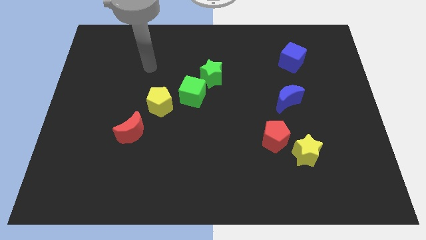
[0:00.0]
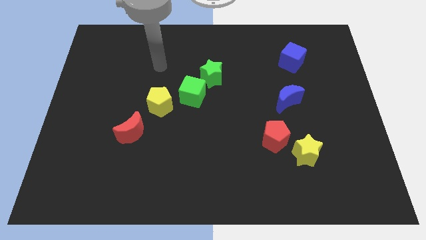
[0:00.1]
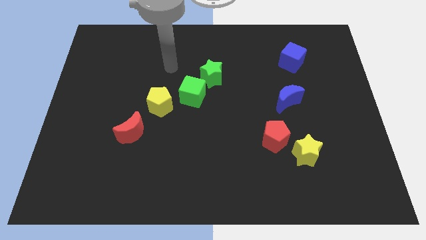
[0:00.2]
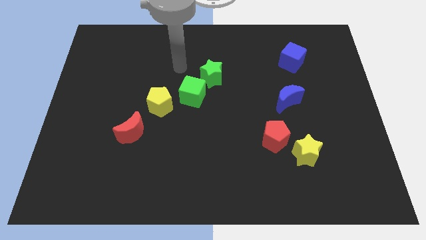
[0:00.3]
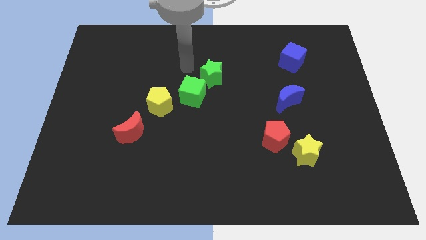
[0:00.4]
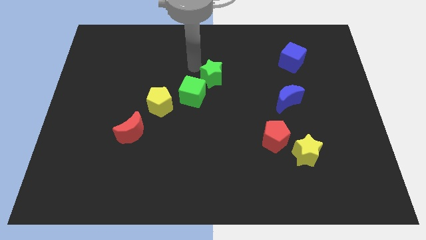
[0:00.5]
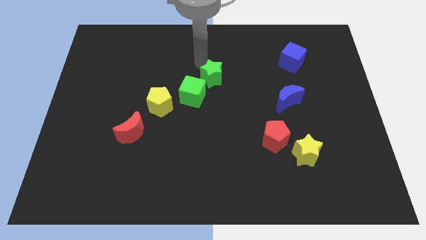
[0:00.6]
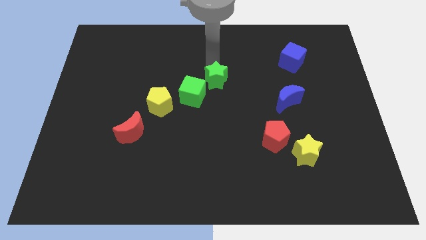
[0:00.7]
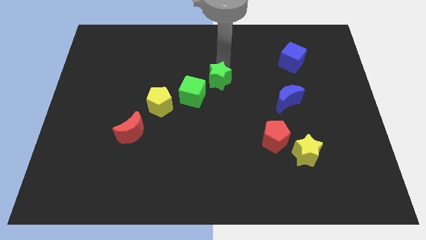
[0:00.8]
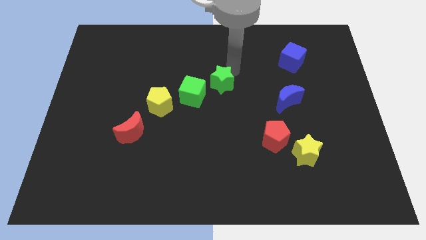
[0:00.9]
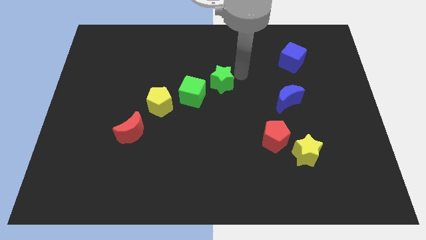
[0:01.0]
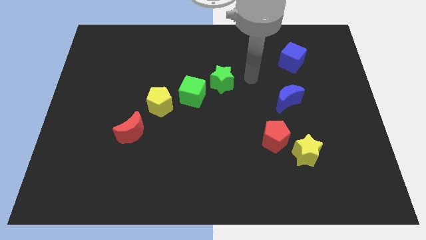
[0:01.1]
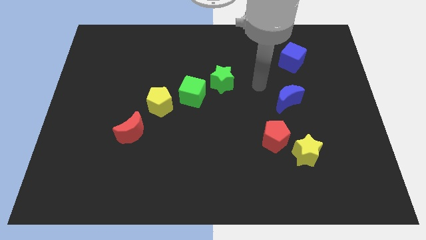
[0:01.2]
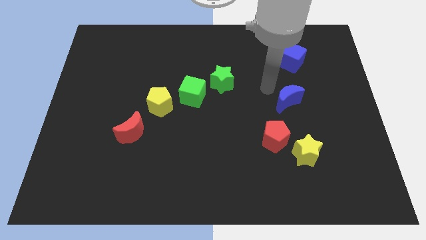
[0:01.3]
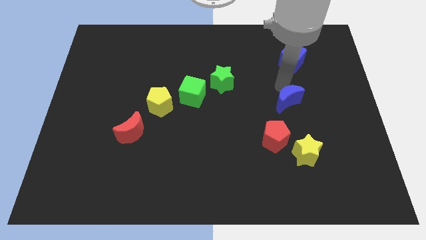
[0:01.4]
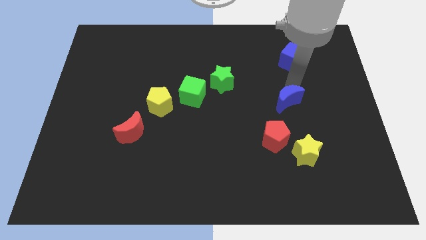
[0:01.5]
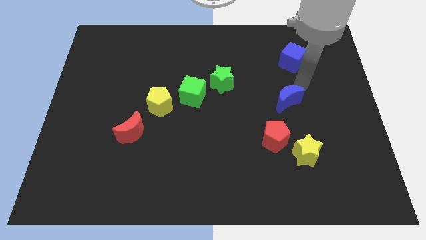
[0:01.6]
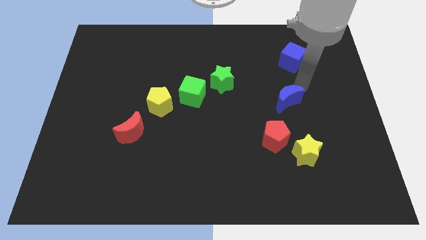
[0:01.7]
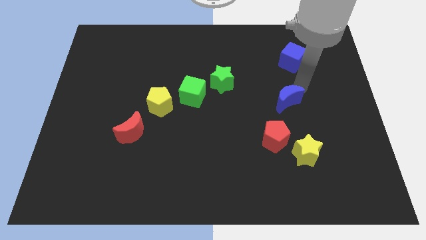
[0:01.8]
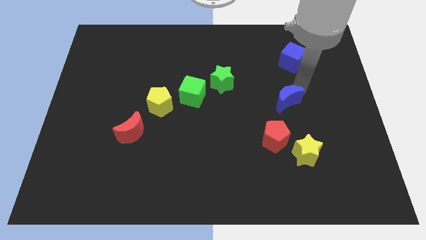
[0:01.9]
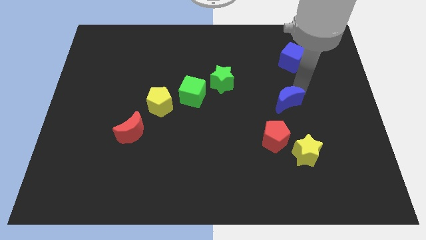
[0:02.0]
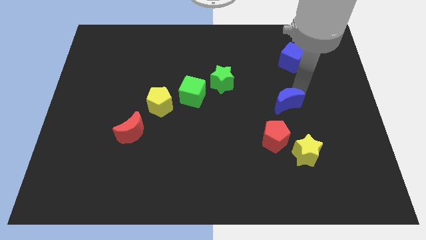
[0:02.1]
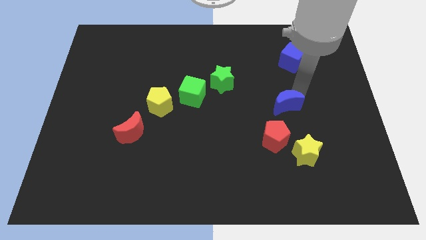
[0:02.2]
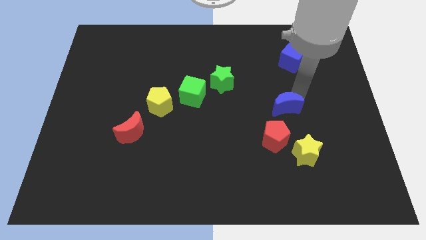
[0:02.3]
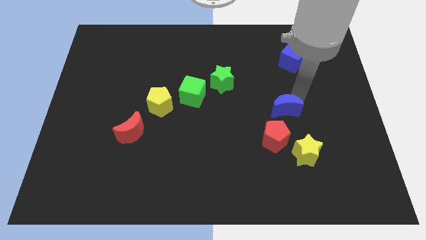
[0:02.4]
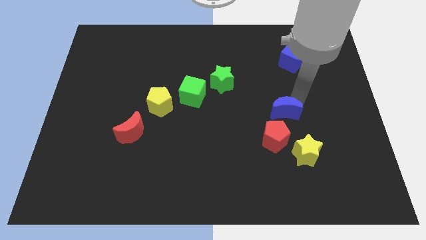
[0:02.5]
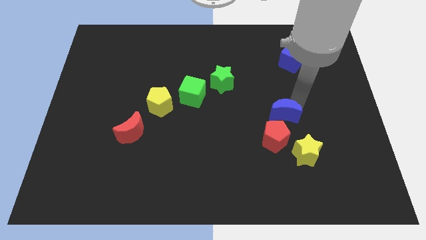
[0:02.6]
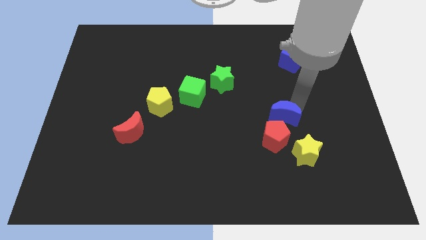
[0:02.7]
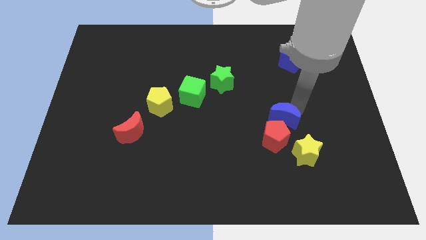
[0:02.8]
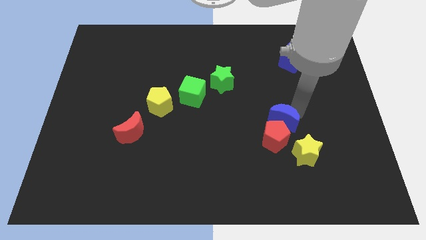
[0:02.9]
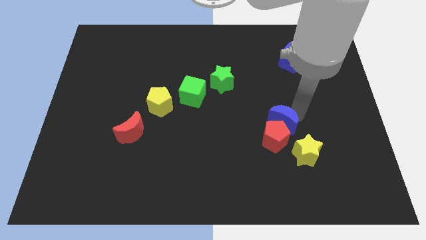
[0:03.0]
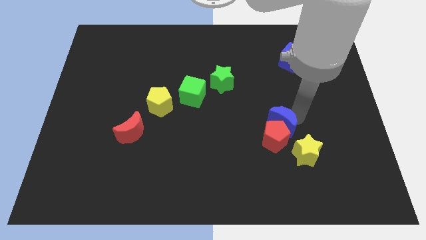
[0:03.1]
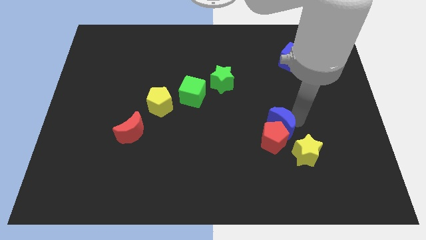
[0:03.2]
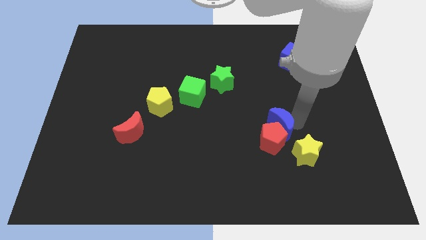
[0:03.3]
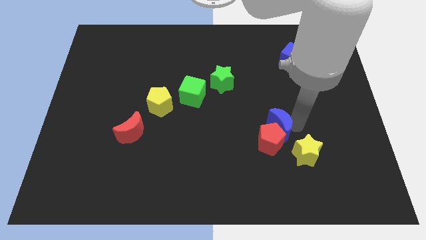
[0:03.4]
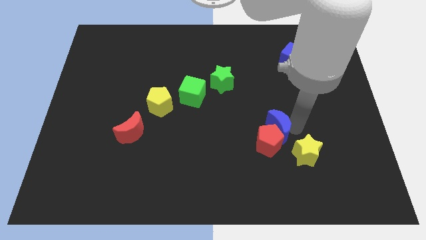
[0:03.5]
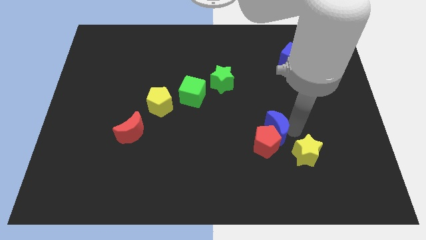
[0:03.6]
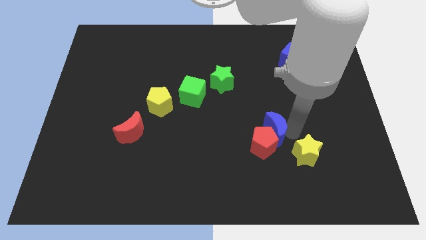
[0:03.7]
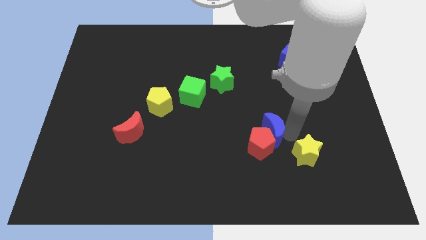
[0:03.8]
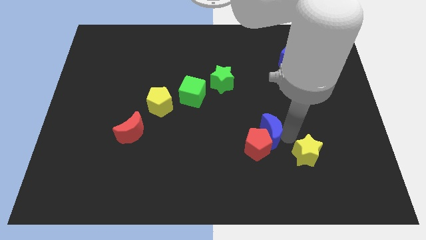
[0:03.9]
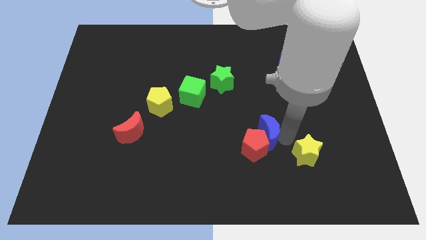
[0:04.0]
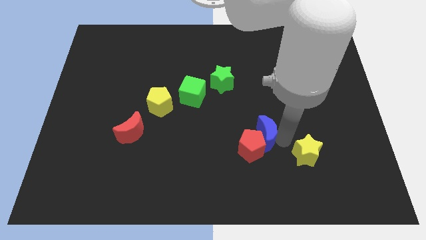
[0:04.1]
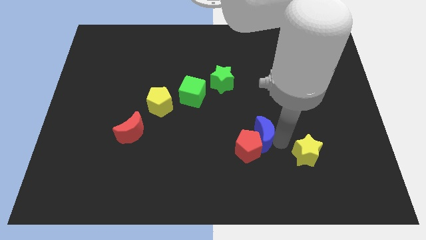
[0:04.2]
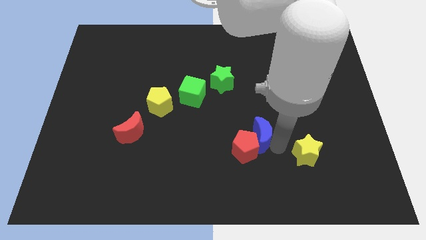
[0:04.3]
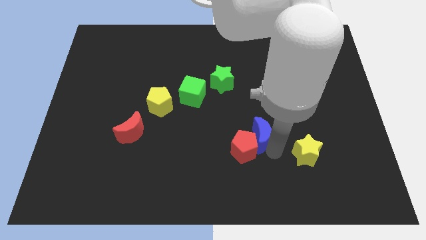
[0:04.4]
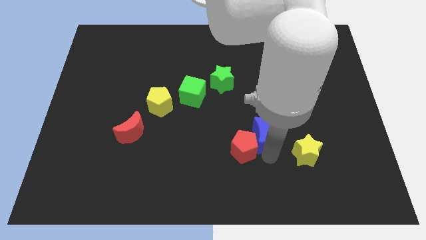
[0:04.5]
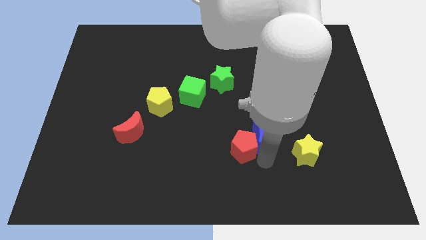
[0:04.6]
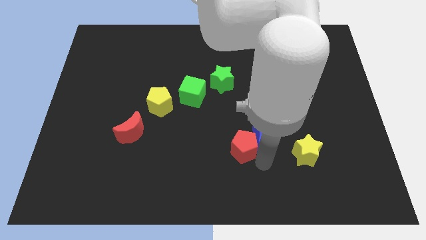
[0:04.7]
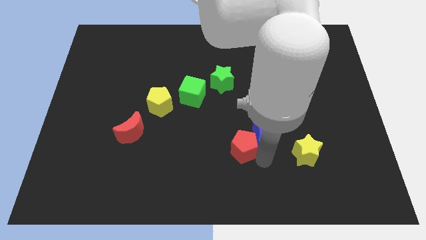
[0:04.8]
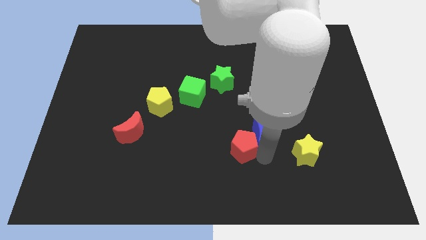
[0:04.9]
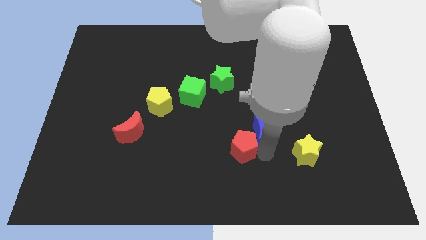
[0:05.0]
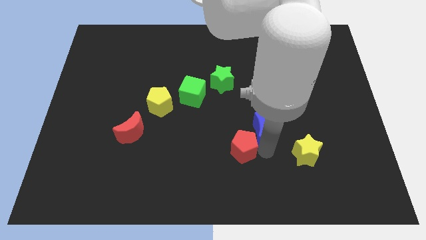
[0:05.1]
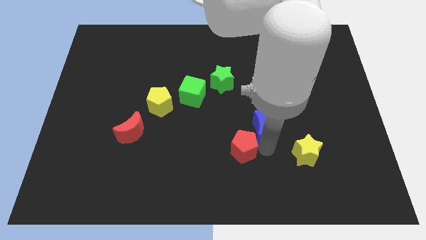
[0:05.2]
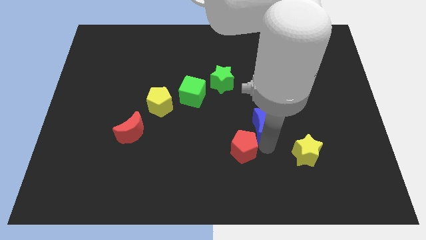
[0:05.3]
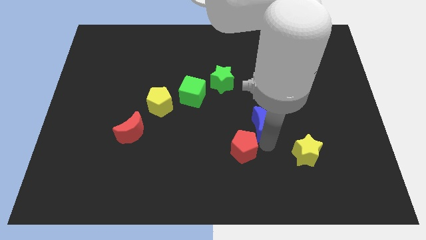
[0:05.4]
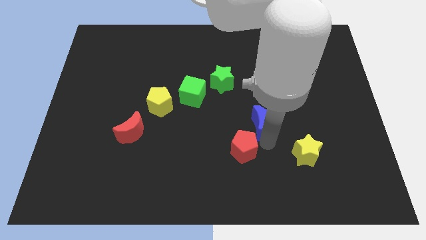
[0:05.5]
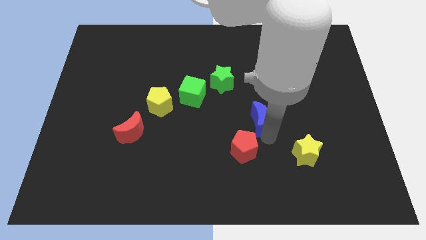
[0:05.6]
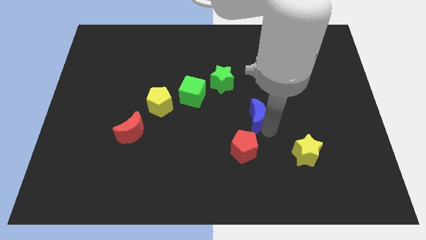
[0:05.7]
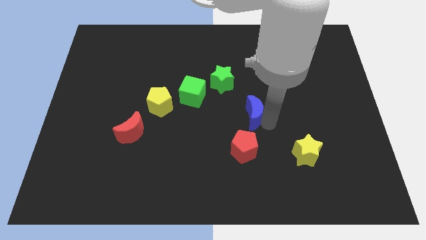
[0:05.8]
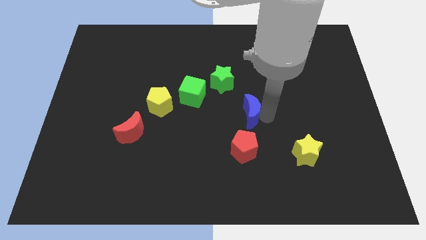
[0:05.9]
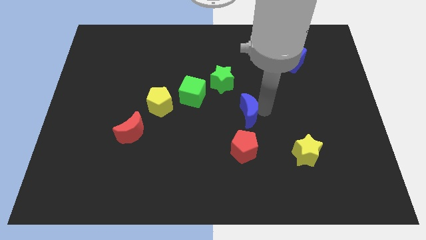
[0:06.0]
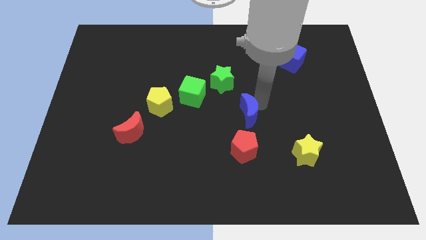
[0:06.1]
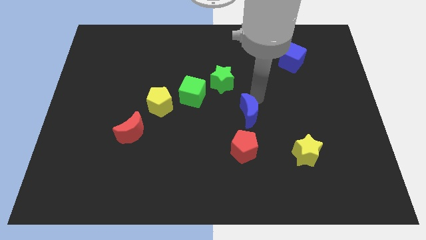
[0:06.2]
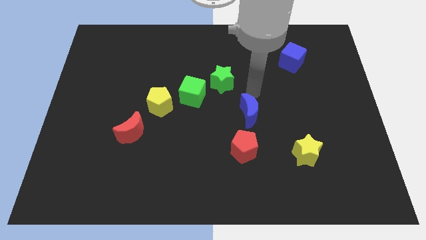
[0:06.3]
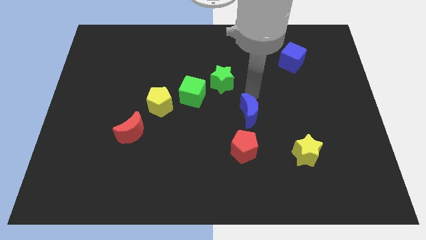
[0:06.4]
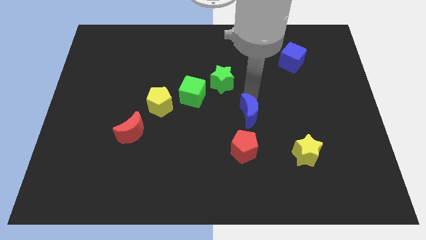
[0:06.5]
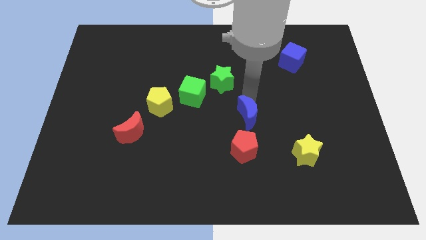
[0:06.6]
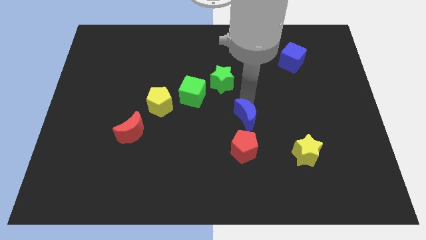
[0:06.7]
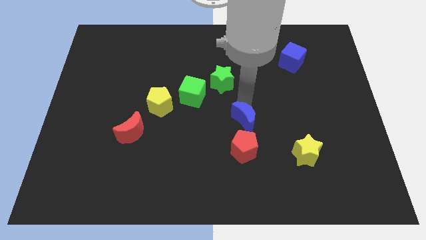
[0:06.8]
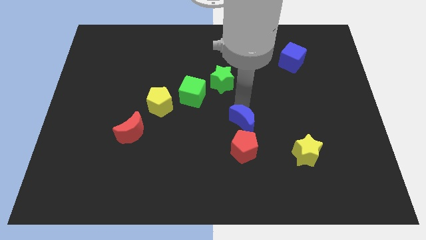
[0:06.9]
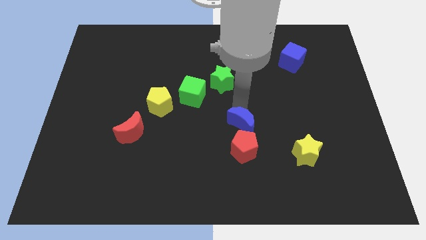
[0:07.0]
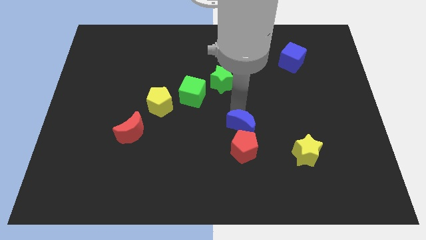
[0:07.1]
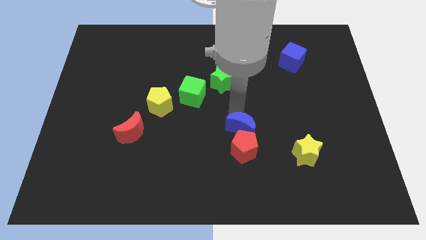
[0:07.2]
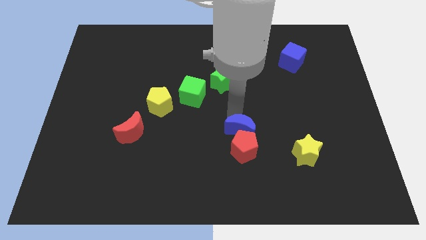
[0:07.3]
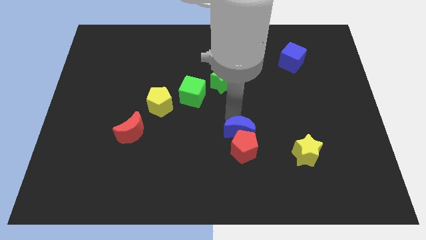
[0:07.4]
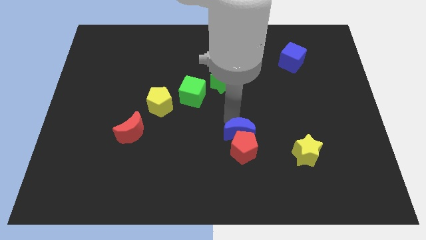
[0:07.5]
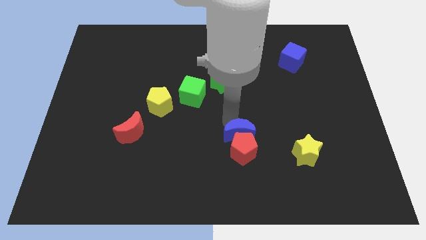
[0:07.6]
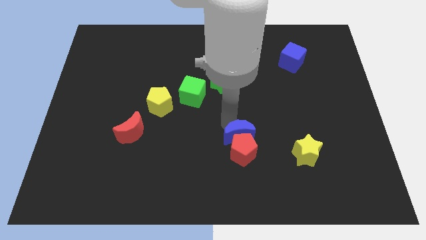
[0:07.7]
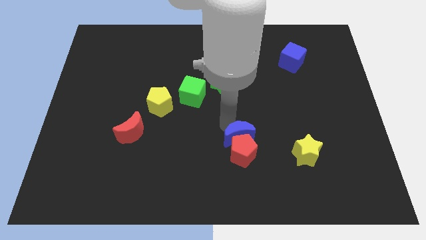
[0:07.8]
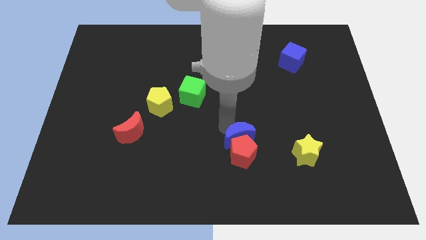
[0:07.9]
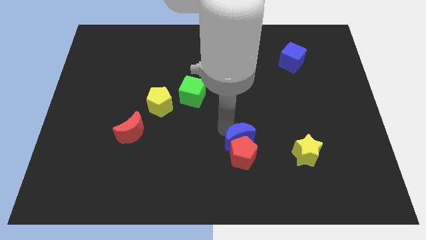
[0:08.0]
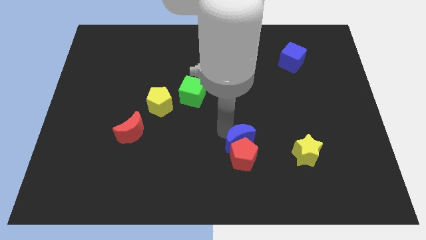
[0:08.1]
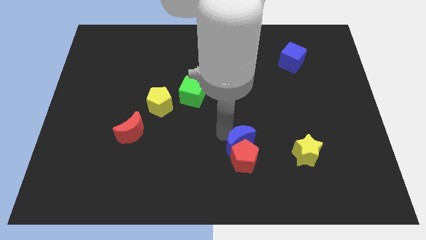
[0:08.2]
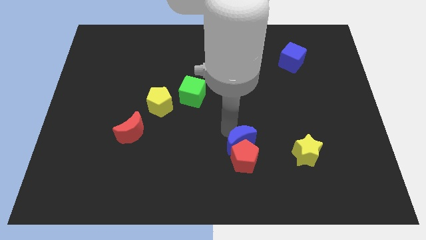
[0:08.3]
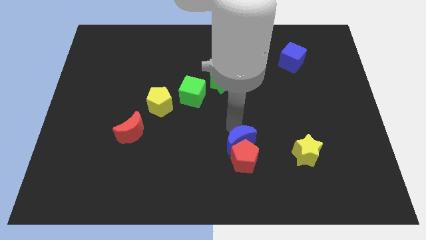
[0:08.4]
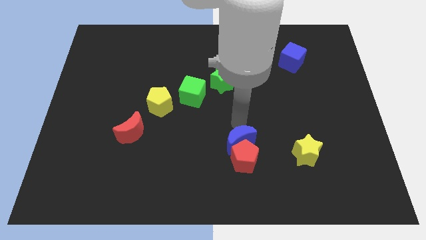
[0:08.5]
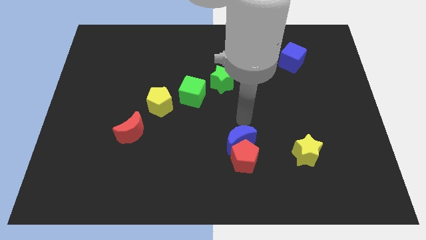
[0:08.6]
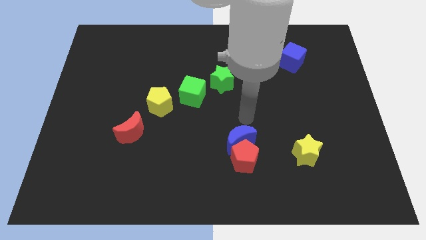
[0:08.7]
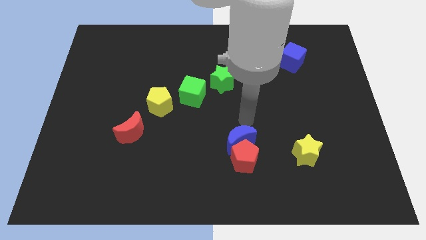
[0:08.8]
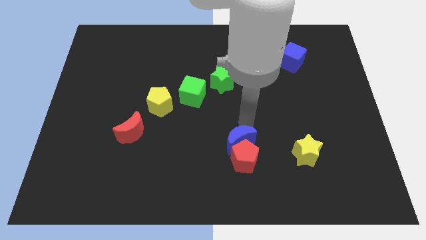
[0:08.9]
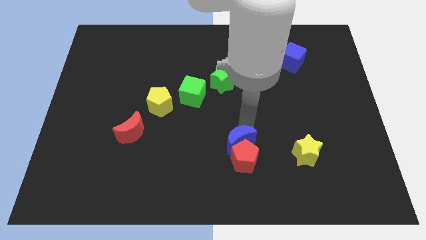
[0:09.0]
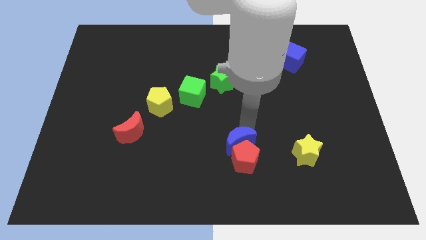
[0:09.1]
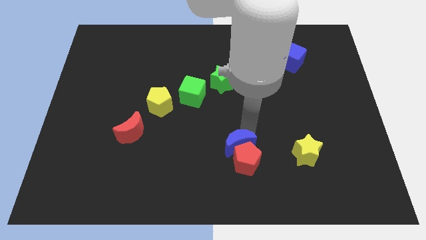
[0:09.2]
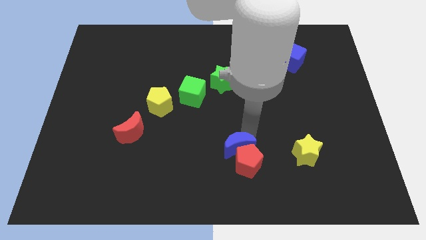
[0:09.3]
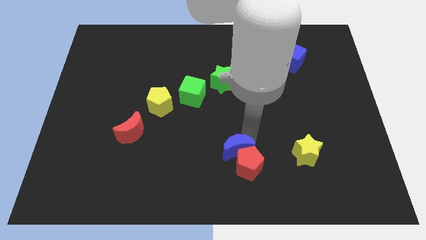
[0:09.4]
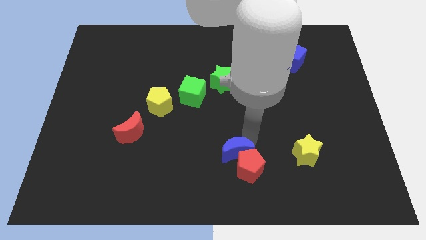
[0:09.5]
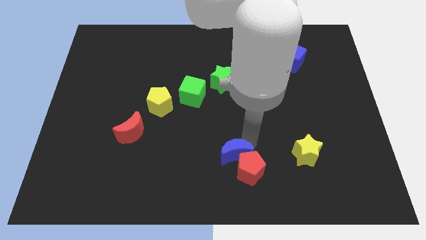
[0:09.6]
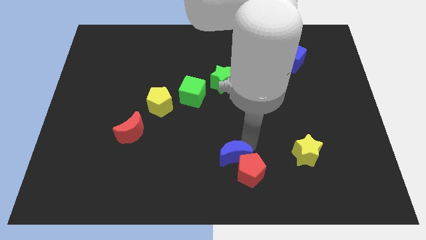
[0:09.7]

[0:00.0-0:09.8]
slide the blue moon to the bottom
